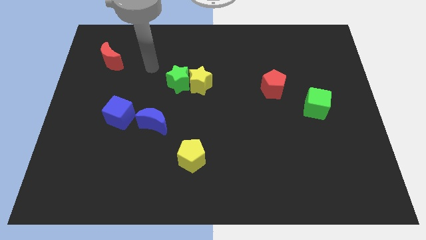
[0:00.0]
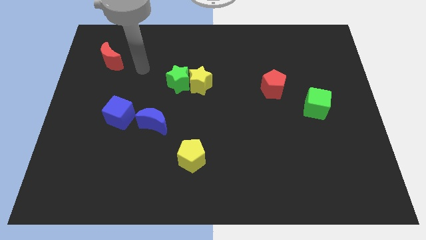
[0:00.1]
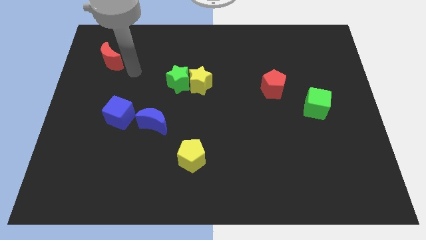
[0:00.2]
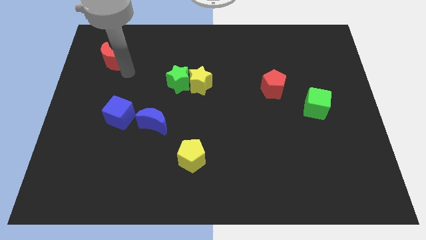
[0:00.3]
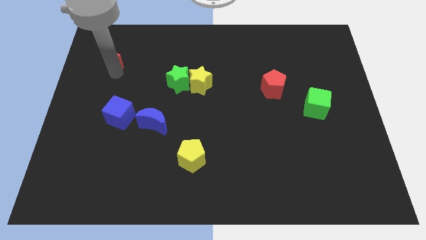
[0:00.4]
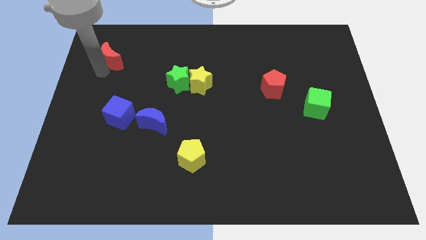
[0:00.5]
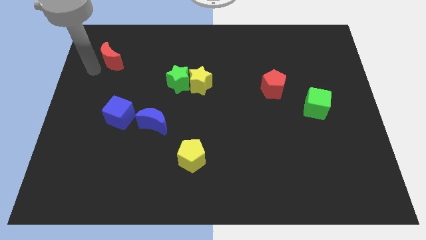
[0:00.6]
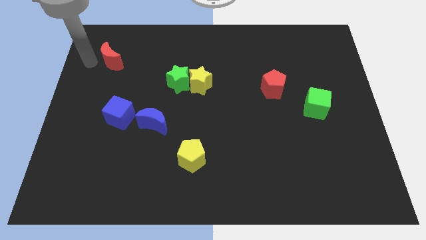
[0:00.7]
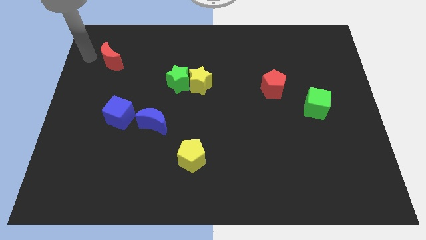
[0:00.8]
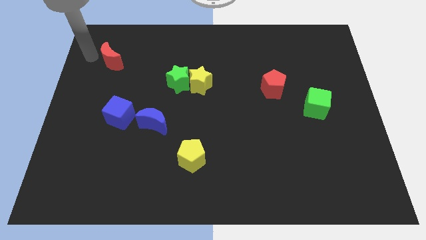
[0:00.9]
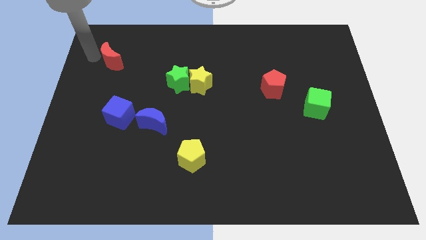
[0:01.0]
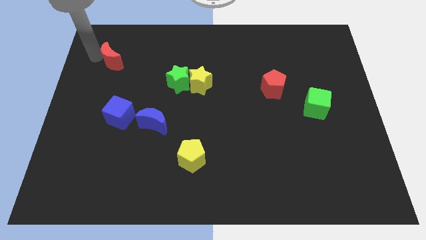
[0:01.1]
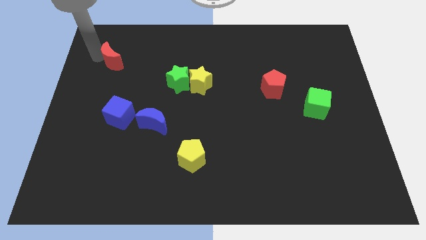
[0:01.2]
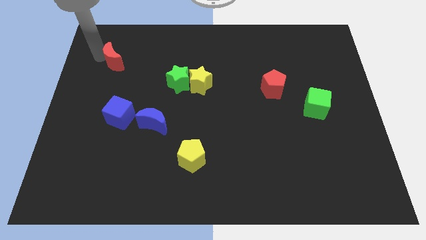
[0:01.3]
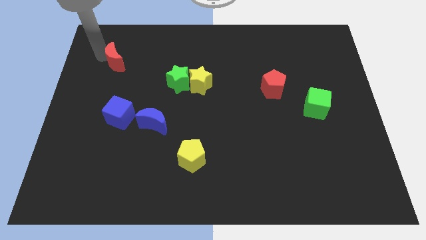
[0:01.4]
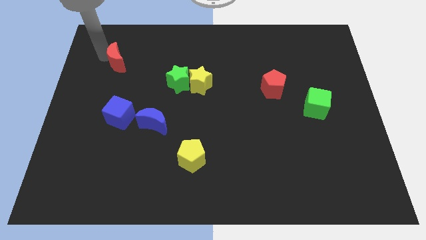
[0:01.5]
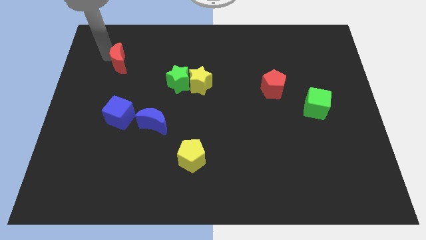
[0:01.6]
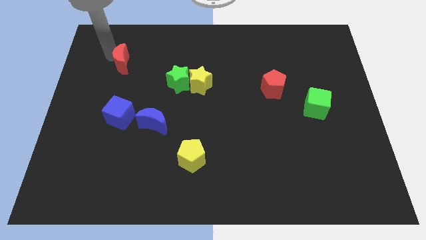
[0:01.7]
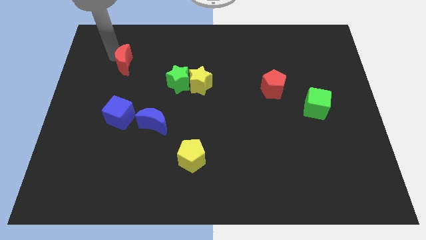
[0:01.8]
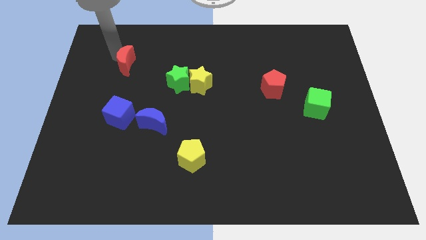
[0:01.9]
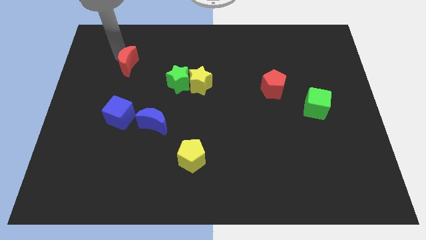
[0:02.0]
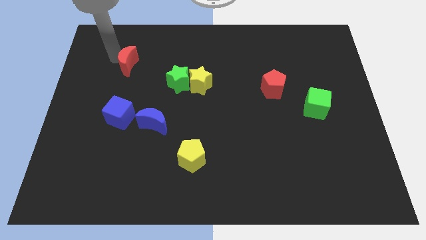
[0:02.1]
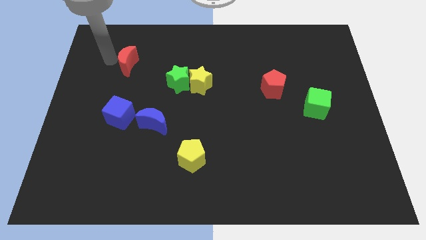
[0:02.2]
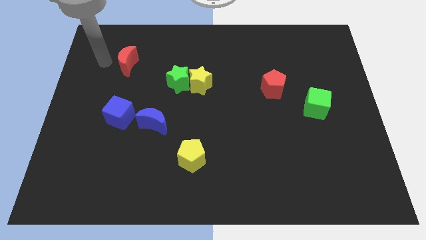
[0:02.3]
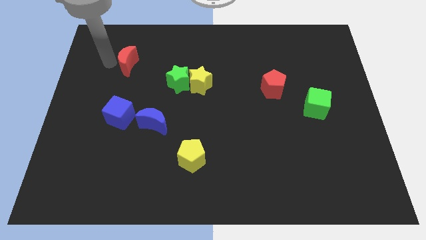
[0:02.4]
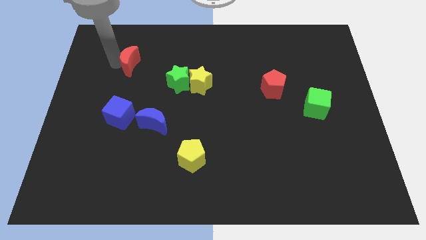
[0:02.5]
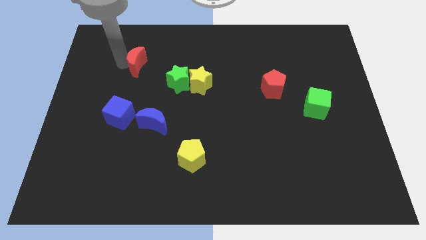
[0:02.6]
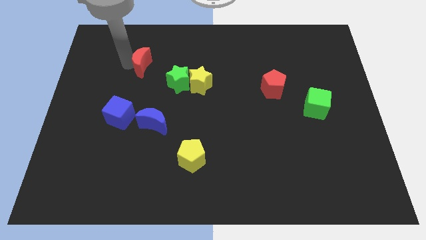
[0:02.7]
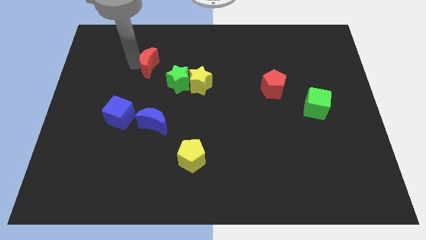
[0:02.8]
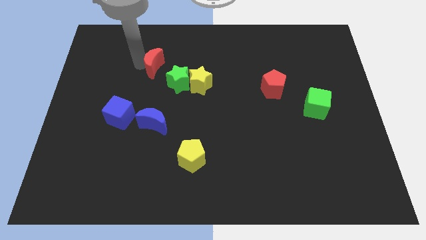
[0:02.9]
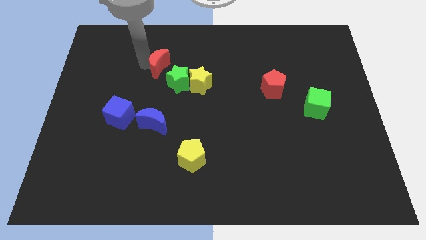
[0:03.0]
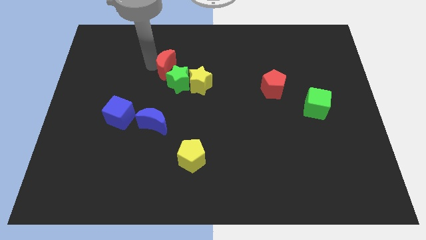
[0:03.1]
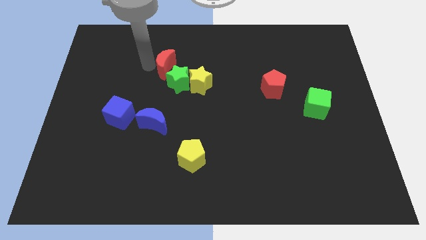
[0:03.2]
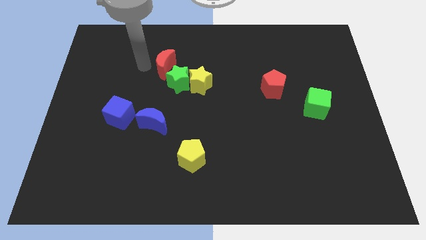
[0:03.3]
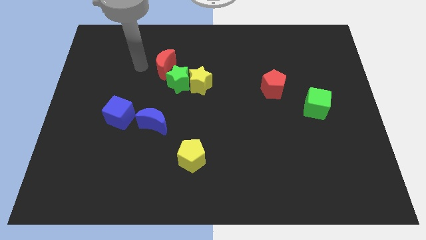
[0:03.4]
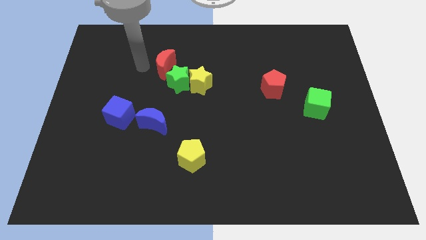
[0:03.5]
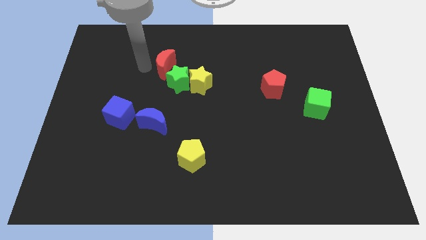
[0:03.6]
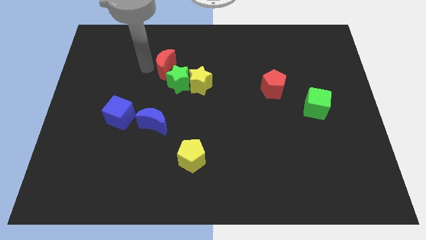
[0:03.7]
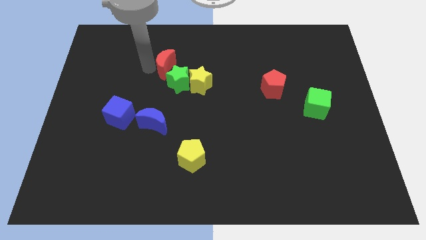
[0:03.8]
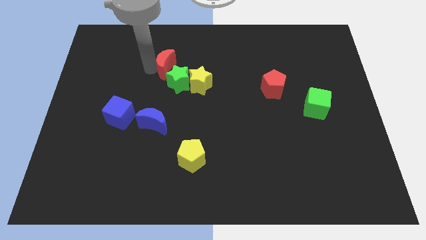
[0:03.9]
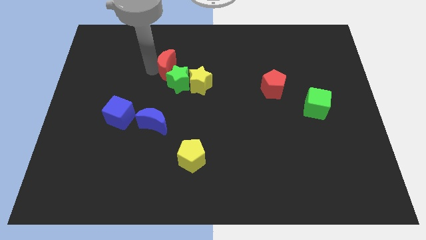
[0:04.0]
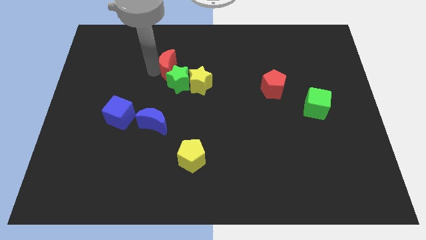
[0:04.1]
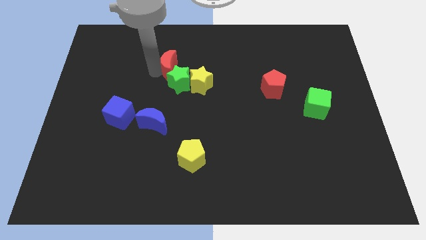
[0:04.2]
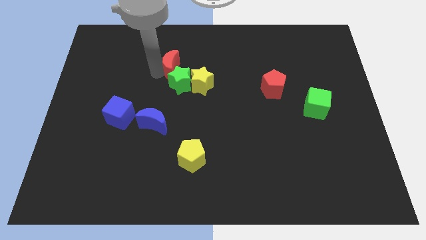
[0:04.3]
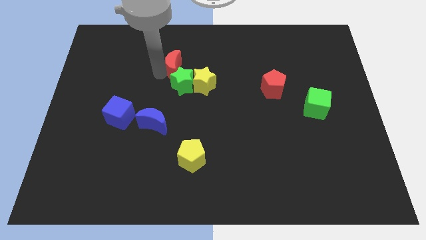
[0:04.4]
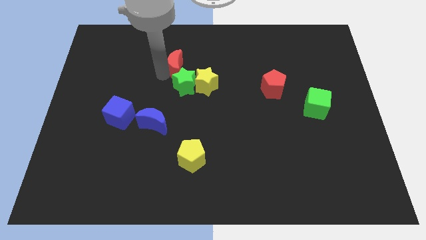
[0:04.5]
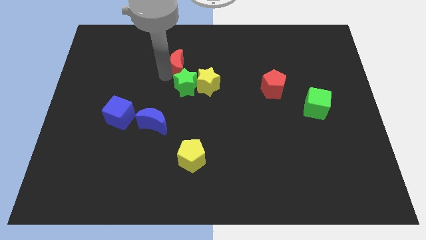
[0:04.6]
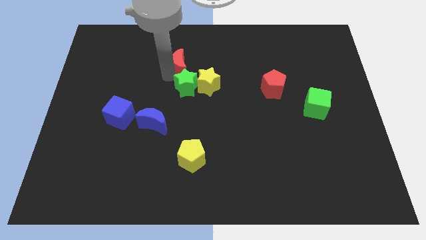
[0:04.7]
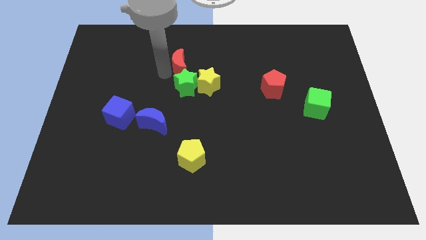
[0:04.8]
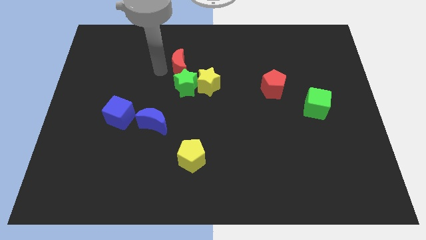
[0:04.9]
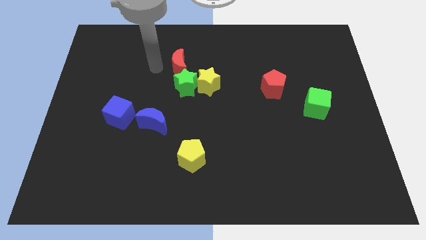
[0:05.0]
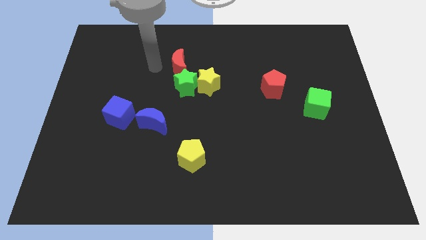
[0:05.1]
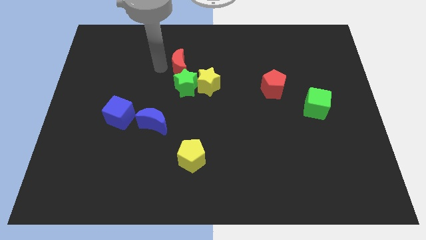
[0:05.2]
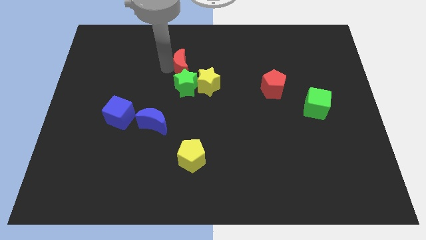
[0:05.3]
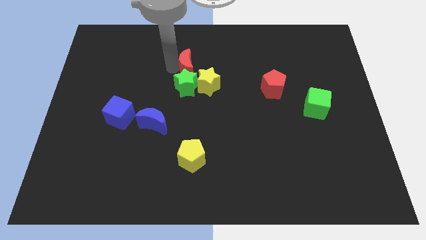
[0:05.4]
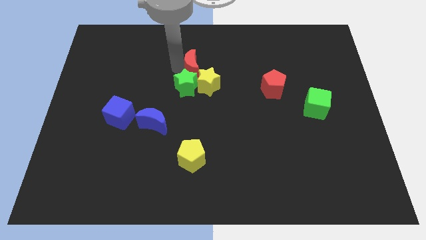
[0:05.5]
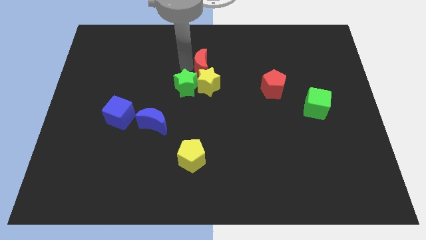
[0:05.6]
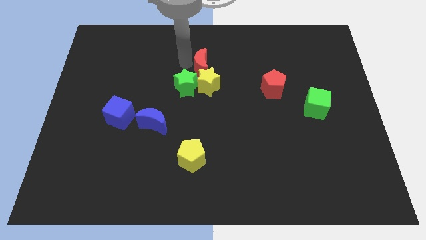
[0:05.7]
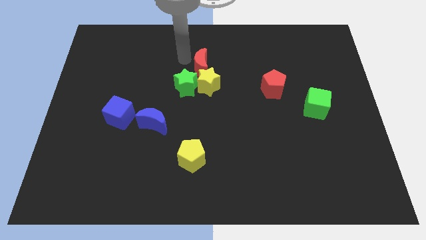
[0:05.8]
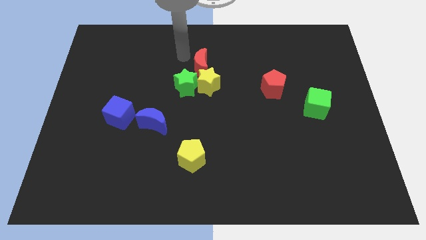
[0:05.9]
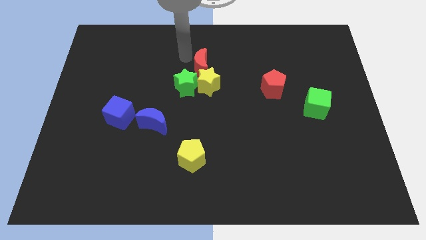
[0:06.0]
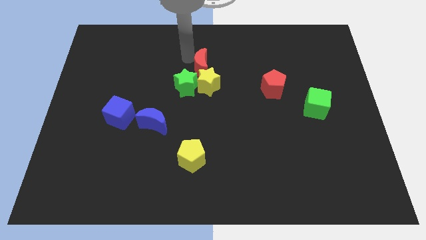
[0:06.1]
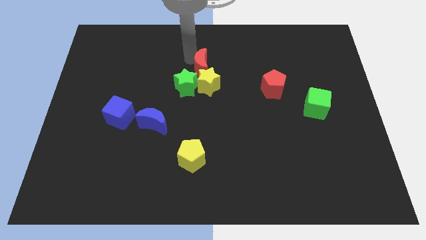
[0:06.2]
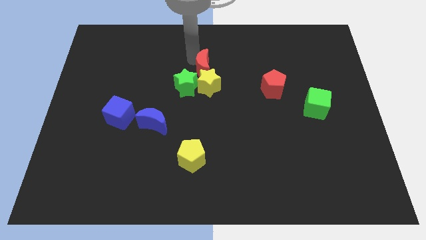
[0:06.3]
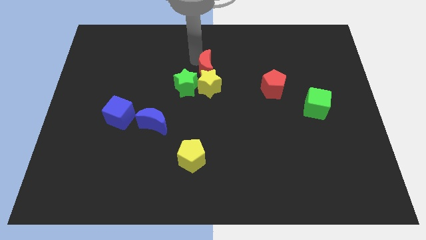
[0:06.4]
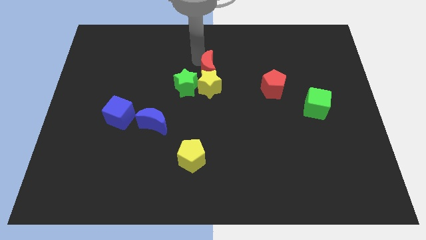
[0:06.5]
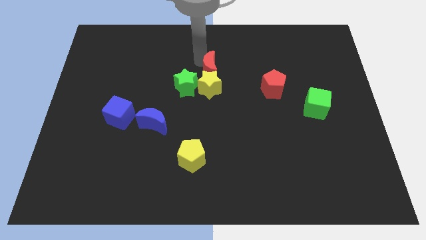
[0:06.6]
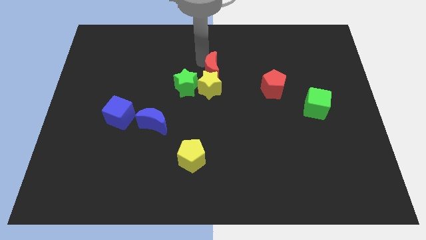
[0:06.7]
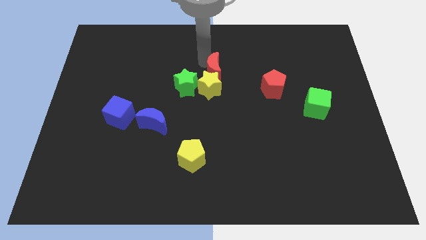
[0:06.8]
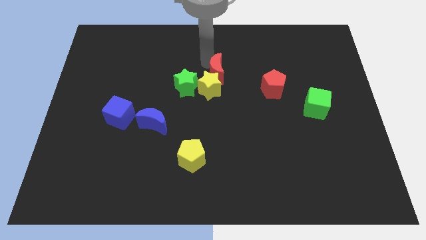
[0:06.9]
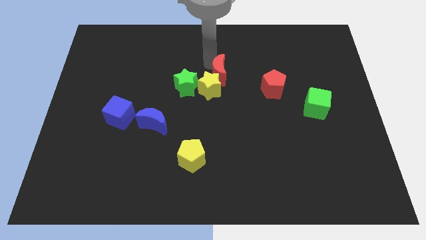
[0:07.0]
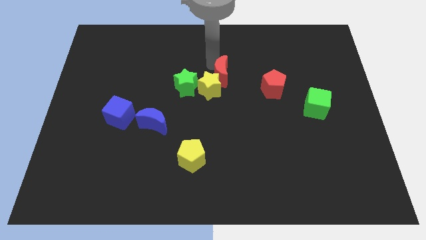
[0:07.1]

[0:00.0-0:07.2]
slide the red moon to the left side of the red pentagon
